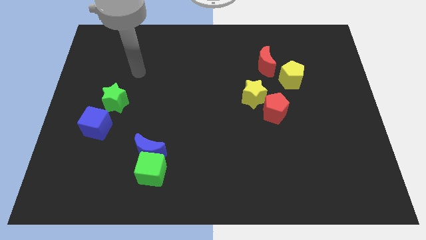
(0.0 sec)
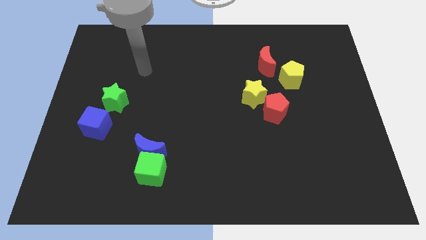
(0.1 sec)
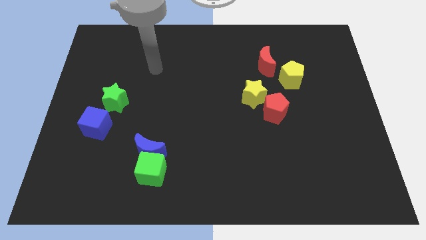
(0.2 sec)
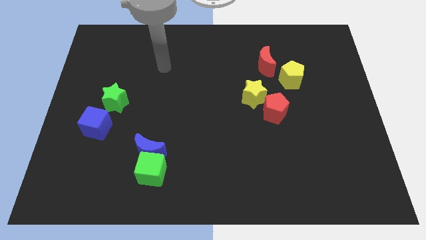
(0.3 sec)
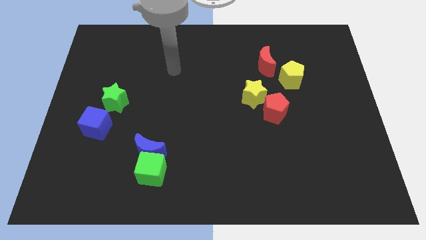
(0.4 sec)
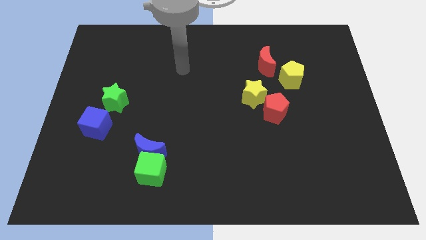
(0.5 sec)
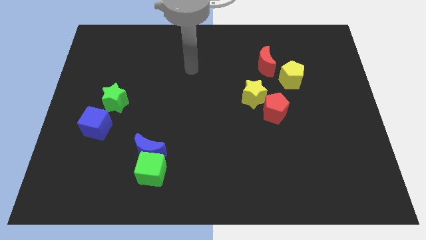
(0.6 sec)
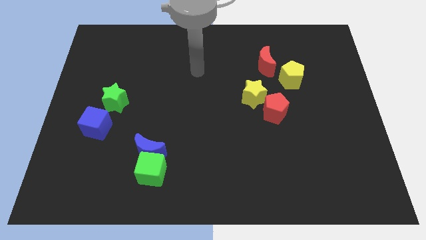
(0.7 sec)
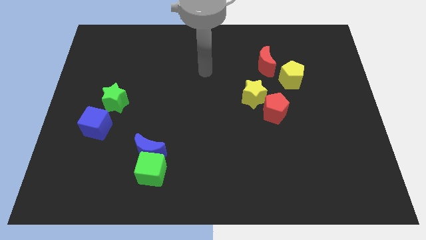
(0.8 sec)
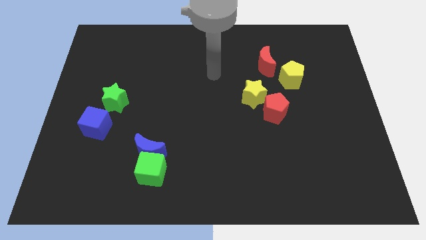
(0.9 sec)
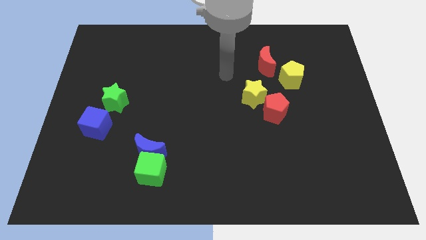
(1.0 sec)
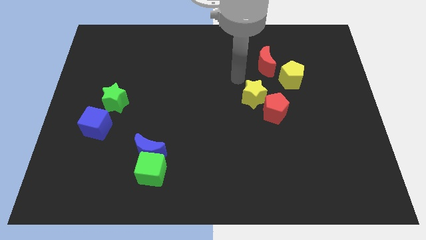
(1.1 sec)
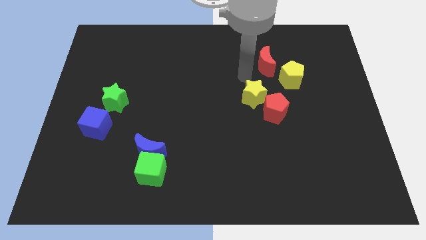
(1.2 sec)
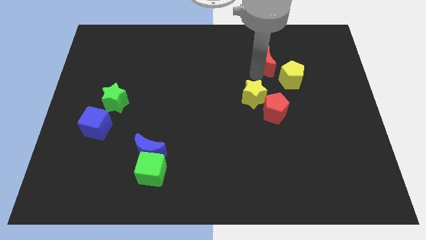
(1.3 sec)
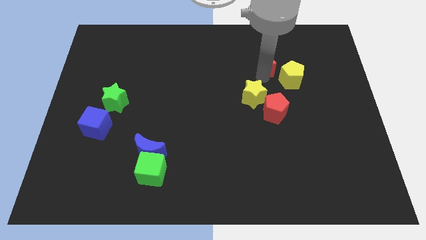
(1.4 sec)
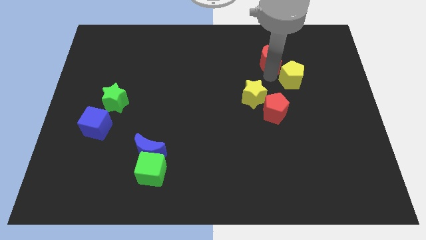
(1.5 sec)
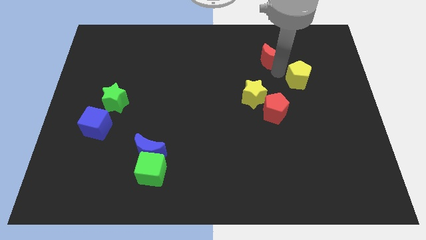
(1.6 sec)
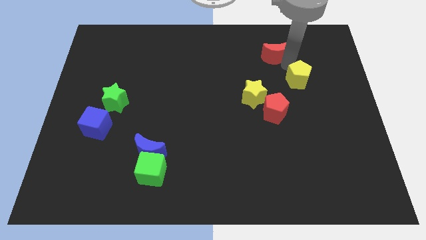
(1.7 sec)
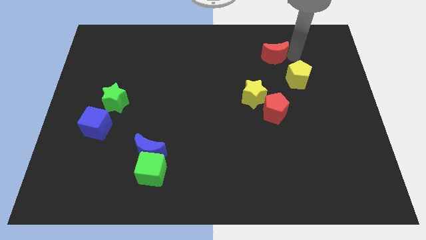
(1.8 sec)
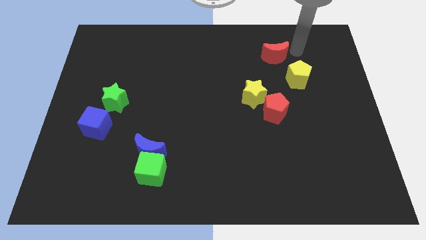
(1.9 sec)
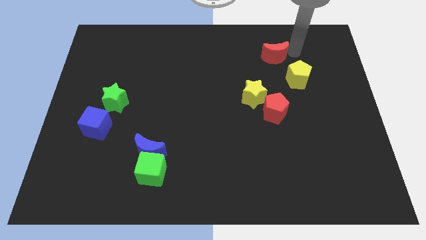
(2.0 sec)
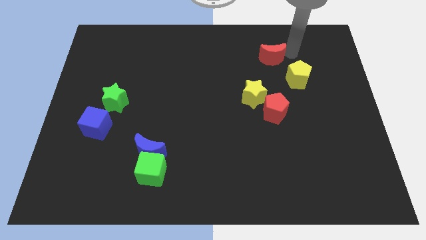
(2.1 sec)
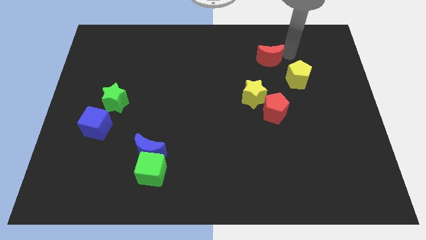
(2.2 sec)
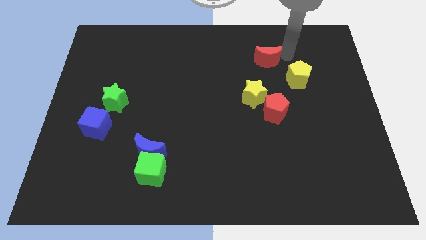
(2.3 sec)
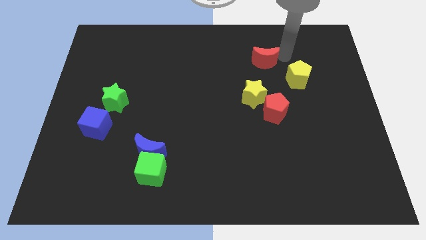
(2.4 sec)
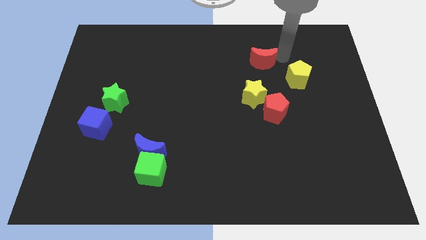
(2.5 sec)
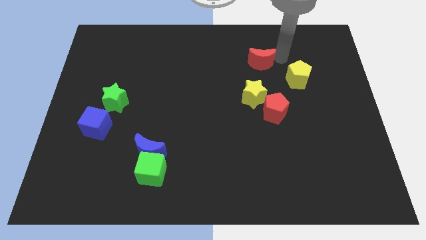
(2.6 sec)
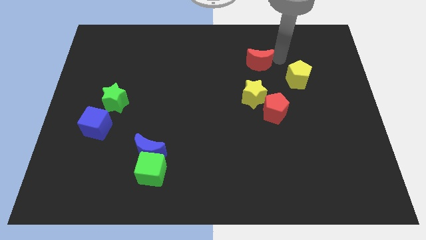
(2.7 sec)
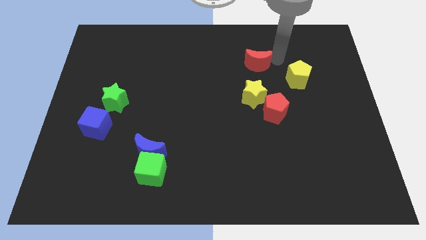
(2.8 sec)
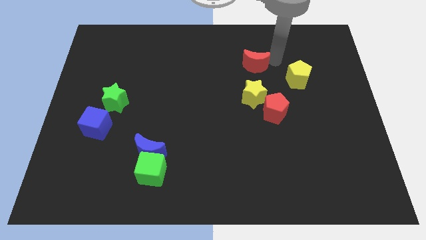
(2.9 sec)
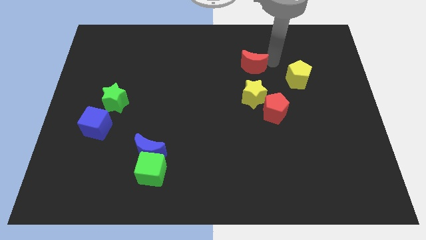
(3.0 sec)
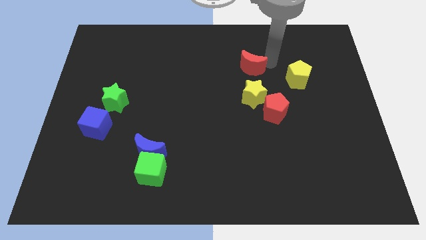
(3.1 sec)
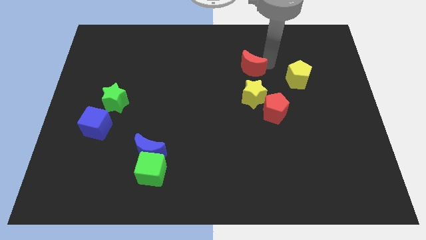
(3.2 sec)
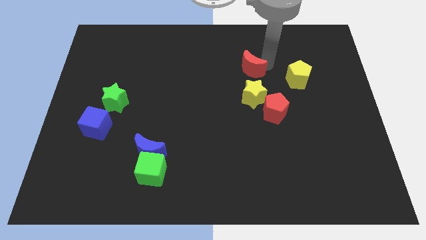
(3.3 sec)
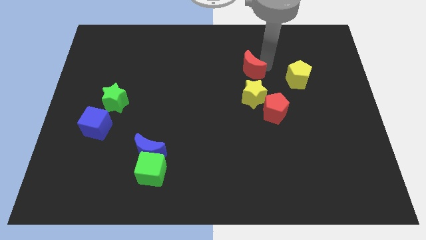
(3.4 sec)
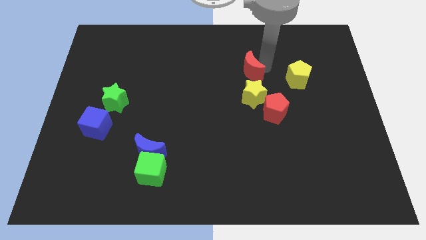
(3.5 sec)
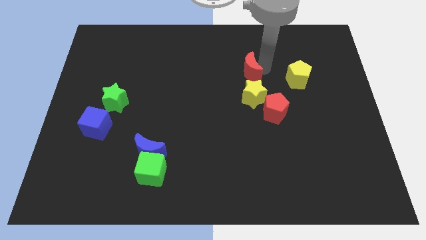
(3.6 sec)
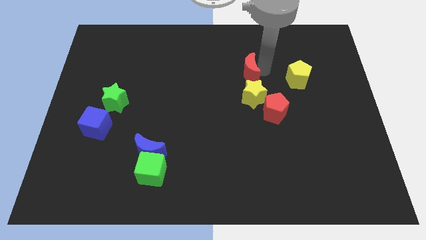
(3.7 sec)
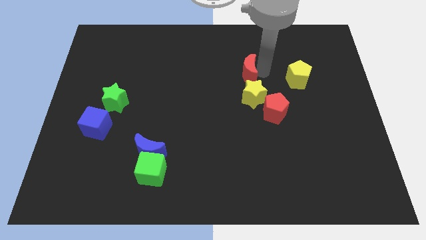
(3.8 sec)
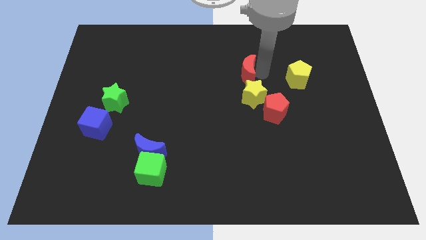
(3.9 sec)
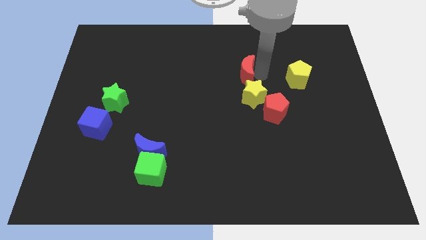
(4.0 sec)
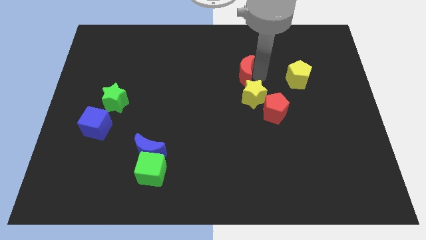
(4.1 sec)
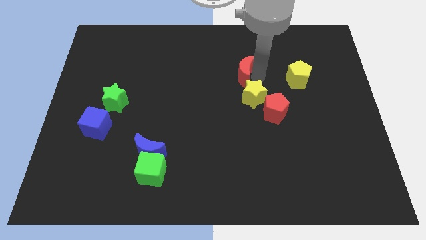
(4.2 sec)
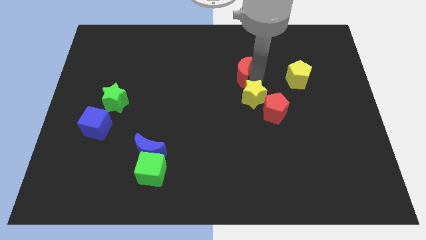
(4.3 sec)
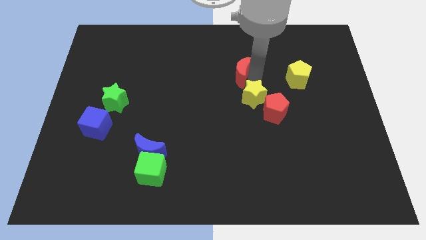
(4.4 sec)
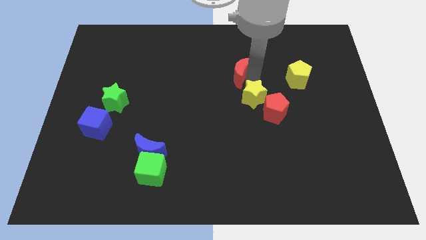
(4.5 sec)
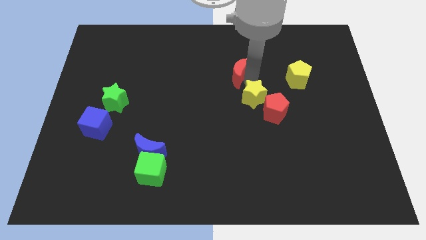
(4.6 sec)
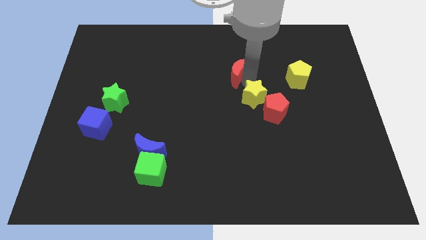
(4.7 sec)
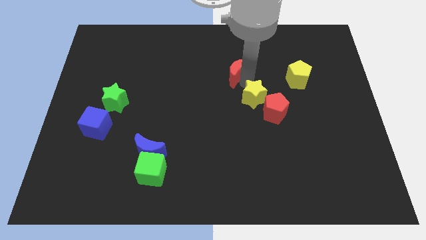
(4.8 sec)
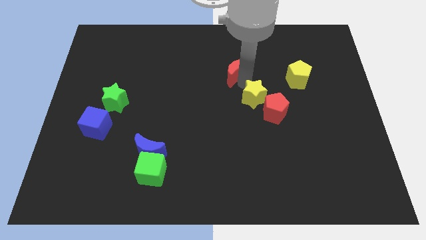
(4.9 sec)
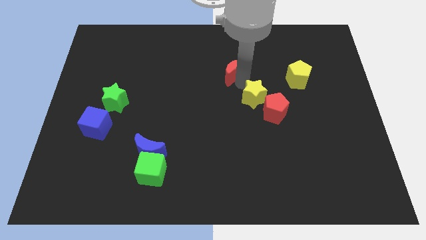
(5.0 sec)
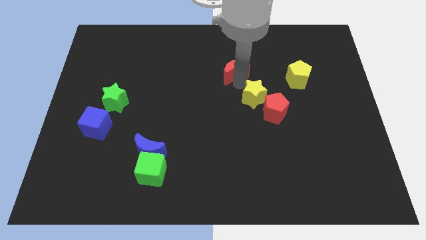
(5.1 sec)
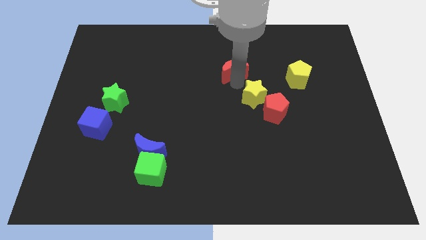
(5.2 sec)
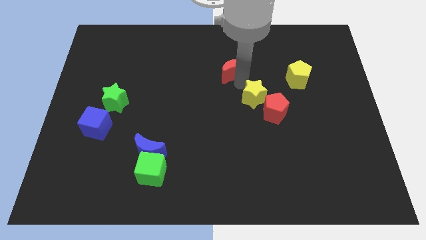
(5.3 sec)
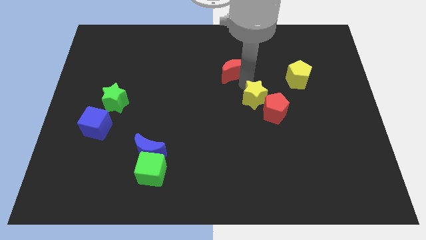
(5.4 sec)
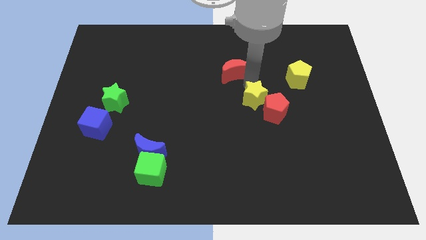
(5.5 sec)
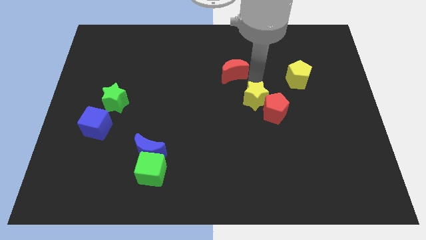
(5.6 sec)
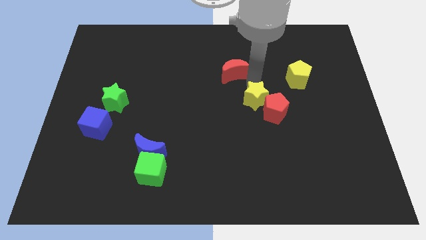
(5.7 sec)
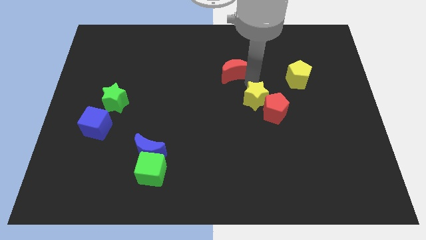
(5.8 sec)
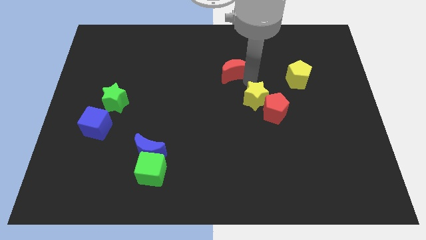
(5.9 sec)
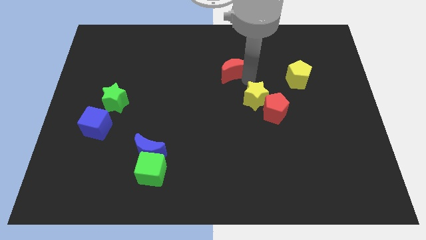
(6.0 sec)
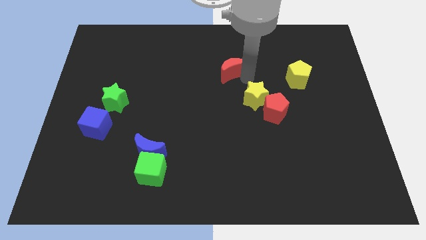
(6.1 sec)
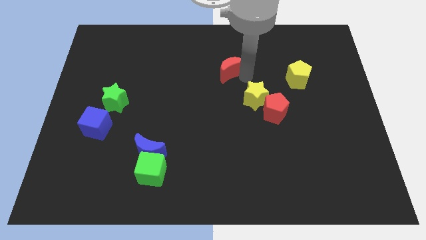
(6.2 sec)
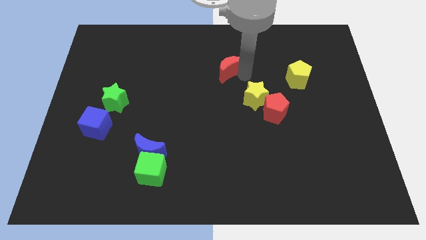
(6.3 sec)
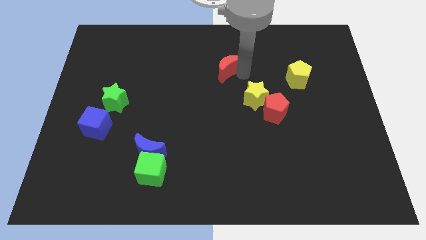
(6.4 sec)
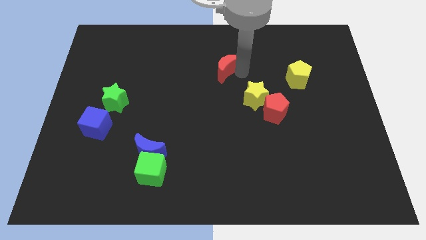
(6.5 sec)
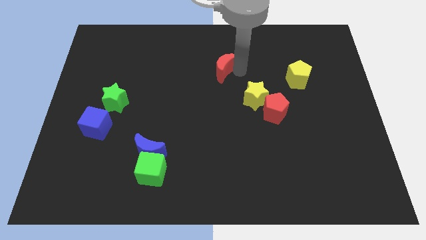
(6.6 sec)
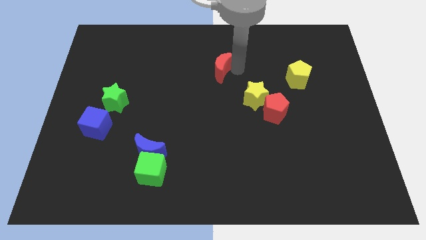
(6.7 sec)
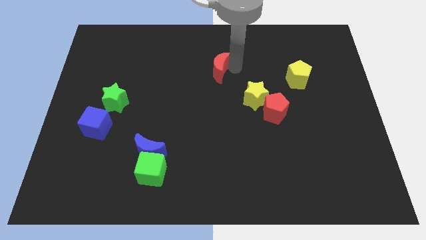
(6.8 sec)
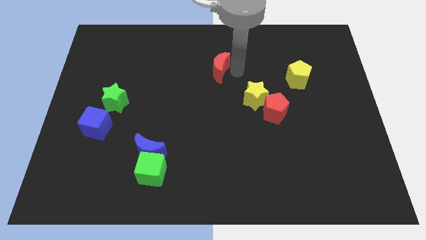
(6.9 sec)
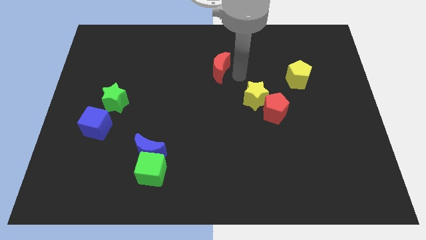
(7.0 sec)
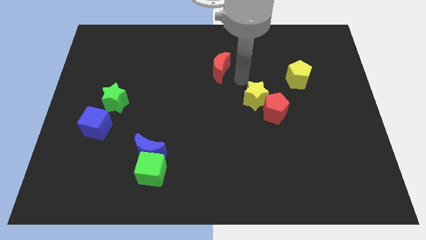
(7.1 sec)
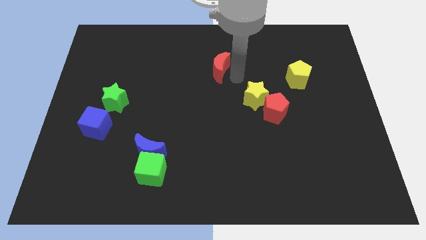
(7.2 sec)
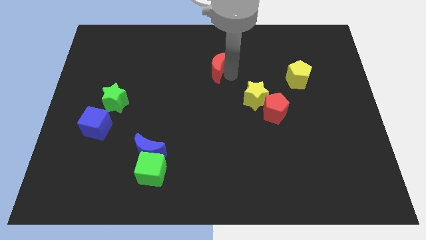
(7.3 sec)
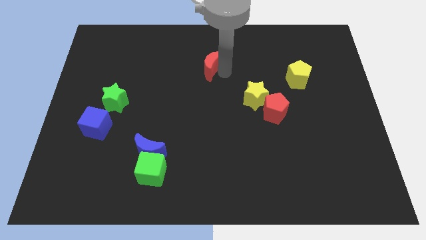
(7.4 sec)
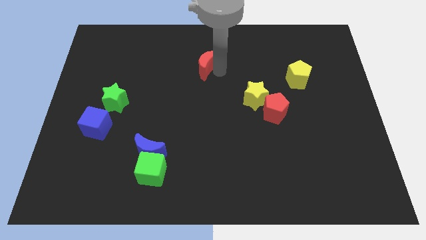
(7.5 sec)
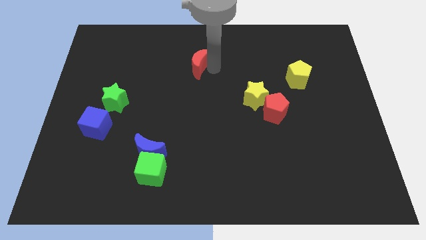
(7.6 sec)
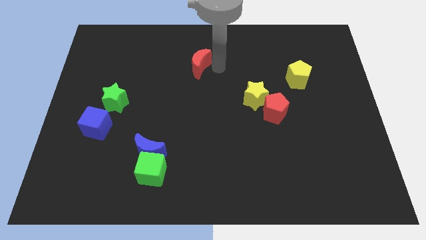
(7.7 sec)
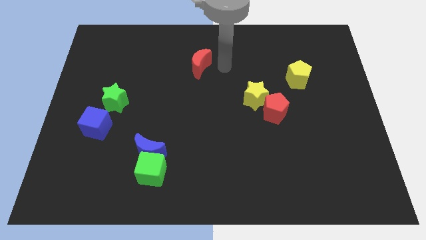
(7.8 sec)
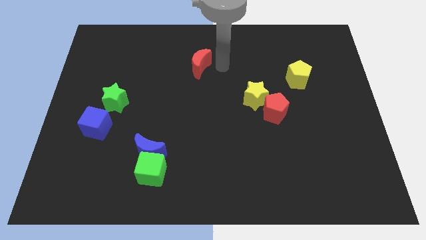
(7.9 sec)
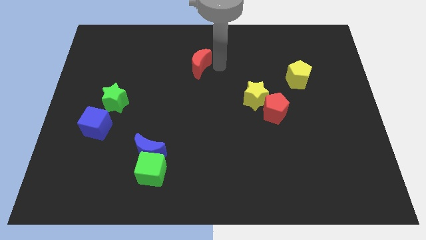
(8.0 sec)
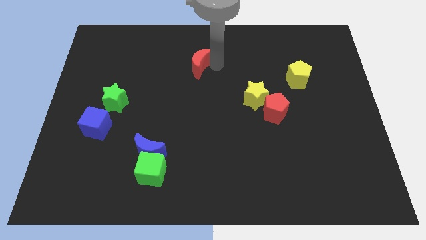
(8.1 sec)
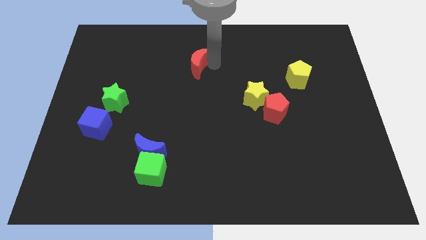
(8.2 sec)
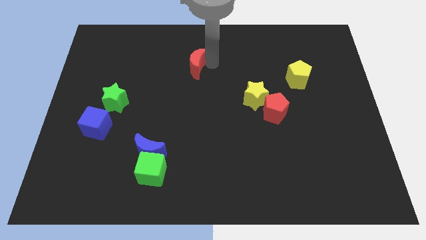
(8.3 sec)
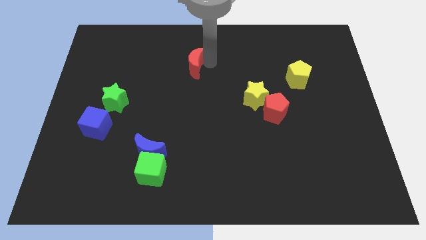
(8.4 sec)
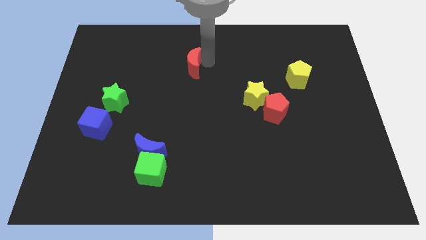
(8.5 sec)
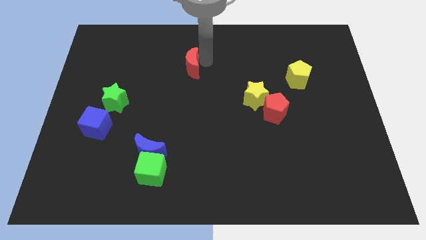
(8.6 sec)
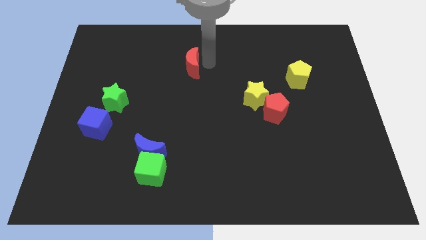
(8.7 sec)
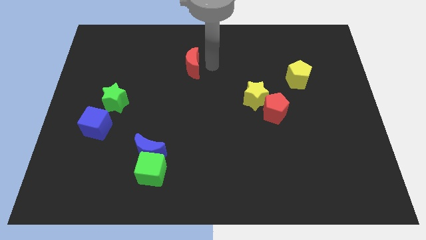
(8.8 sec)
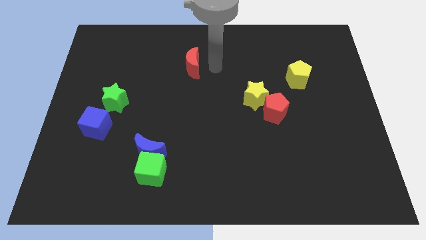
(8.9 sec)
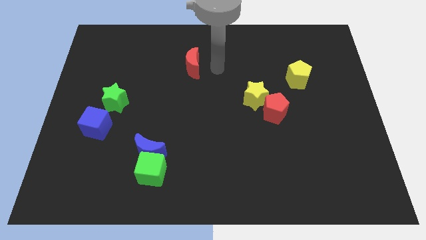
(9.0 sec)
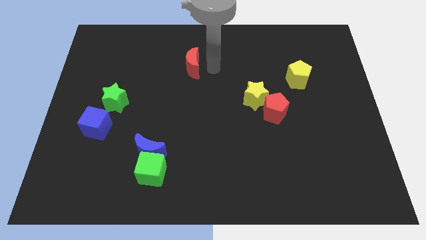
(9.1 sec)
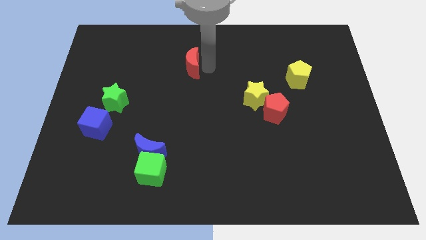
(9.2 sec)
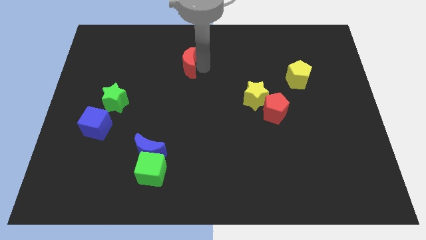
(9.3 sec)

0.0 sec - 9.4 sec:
move the red moon to the left
